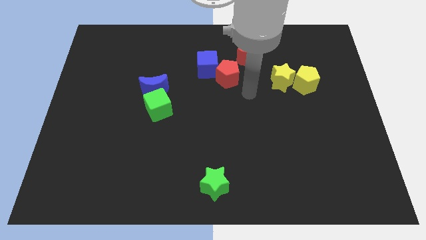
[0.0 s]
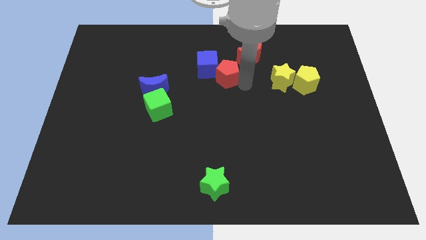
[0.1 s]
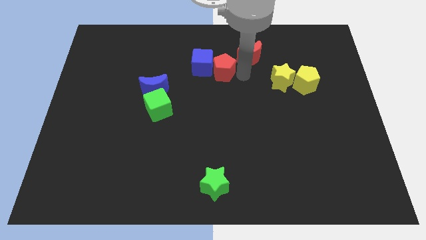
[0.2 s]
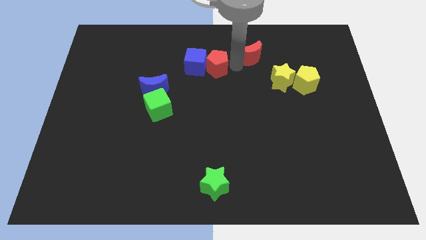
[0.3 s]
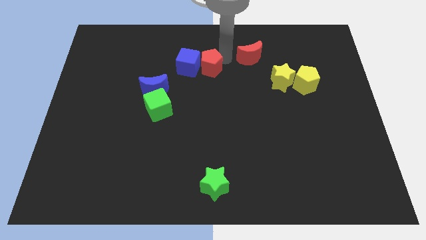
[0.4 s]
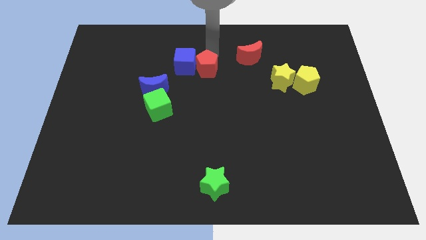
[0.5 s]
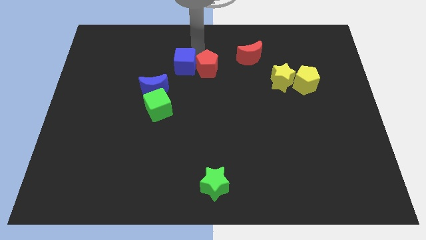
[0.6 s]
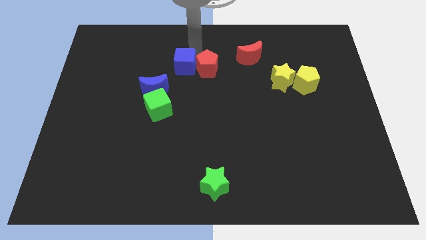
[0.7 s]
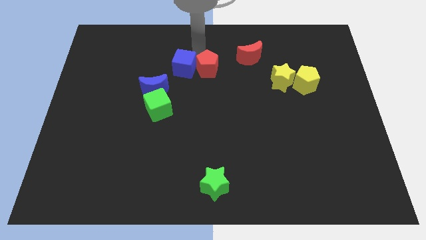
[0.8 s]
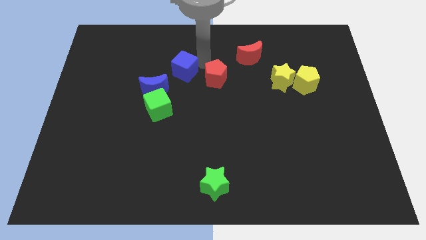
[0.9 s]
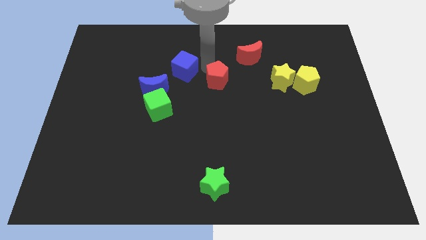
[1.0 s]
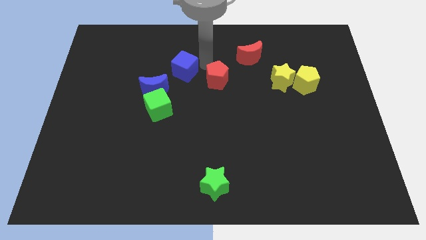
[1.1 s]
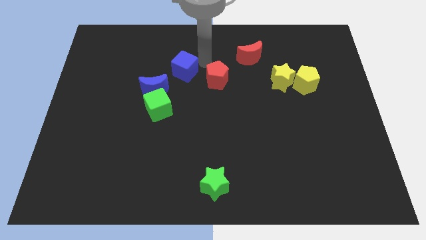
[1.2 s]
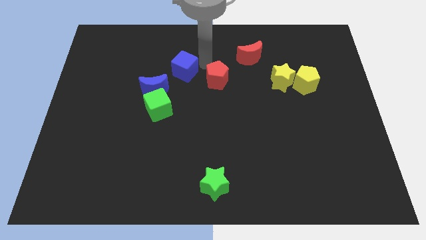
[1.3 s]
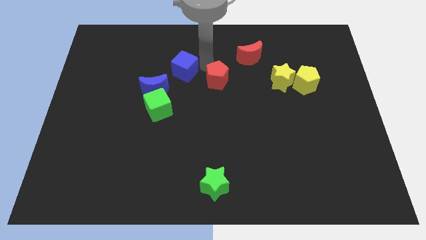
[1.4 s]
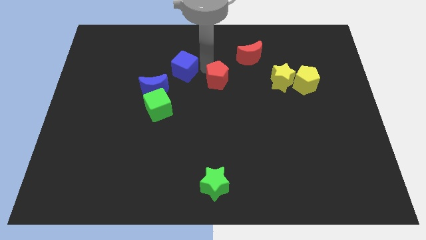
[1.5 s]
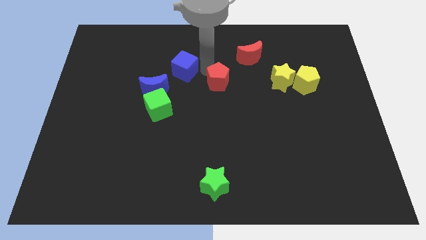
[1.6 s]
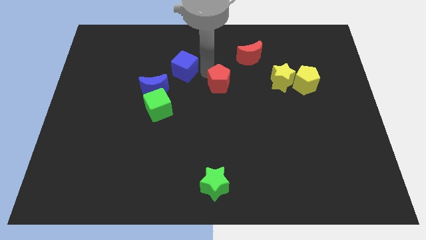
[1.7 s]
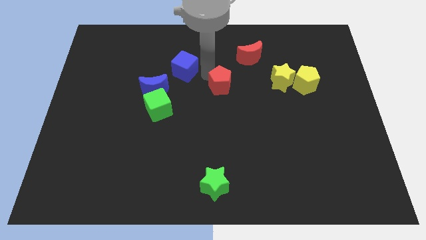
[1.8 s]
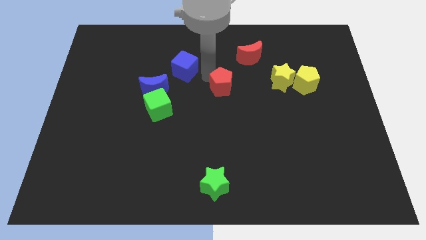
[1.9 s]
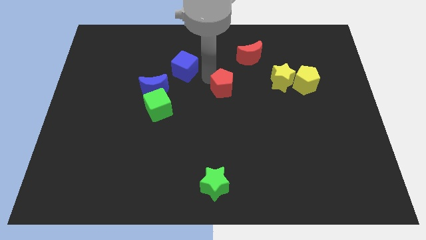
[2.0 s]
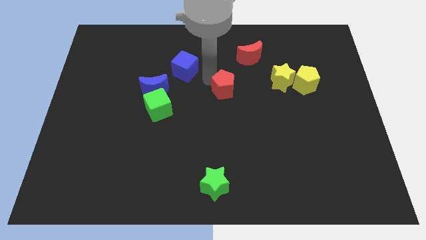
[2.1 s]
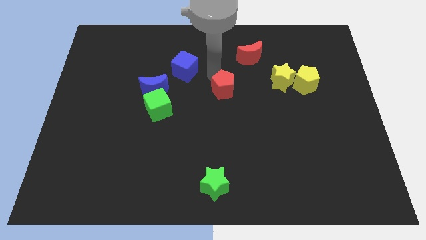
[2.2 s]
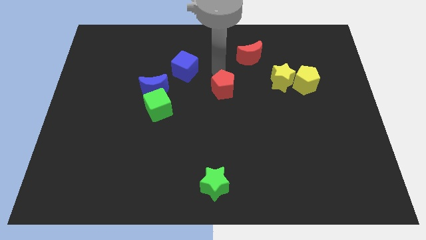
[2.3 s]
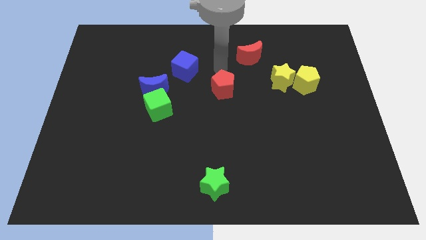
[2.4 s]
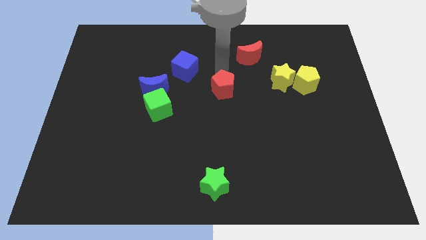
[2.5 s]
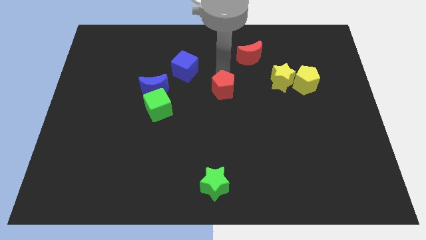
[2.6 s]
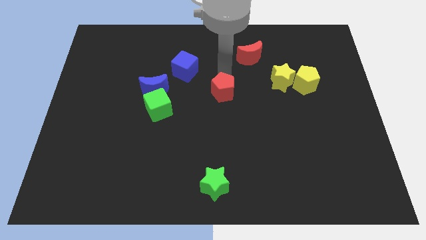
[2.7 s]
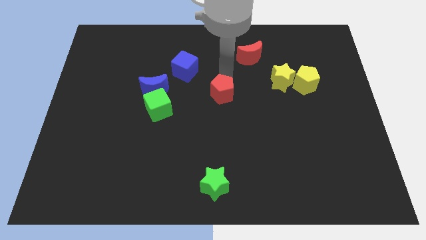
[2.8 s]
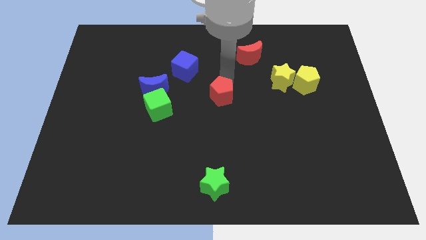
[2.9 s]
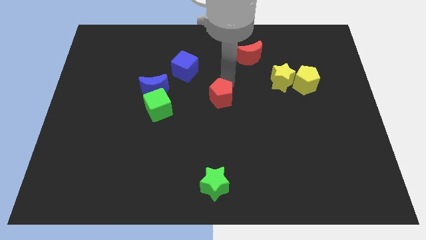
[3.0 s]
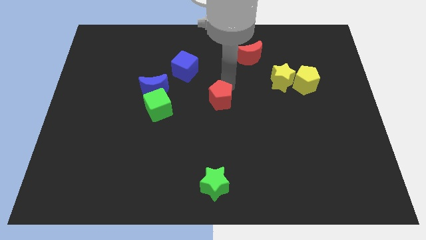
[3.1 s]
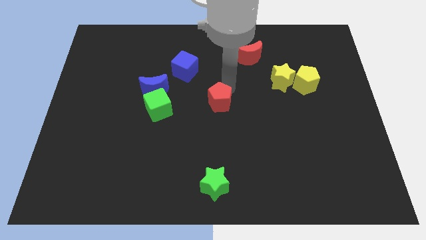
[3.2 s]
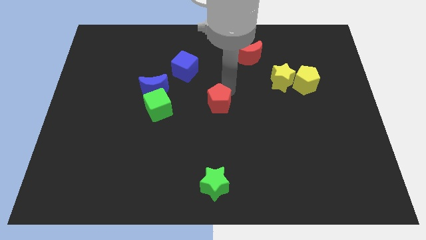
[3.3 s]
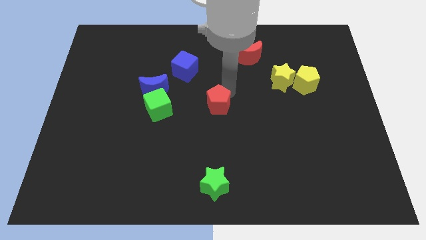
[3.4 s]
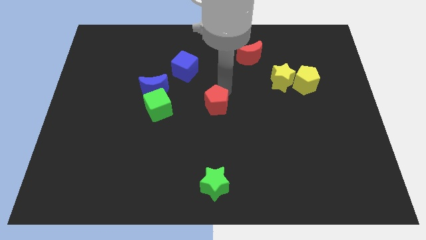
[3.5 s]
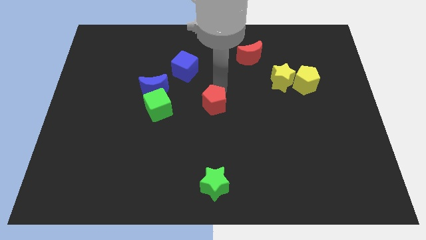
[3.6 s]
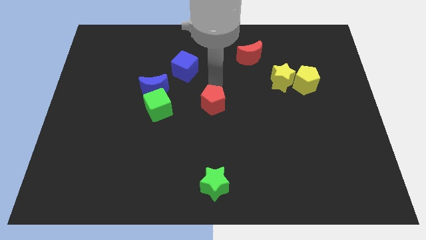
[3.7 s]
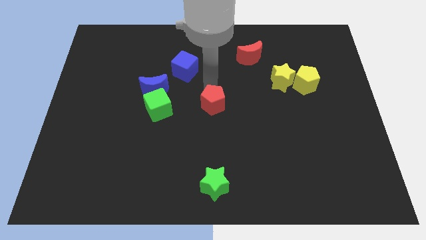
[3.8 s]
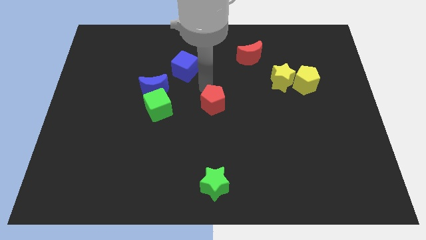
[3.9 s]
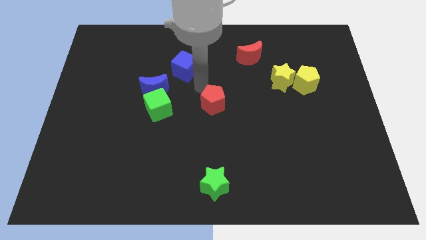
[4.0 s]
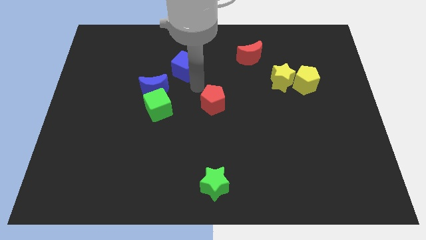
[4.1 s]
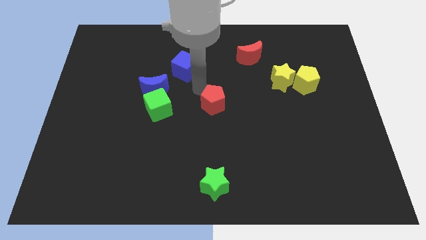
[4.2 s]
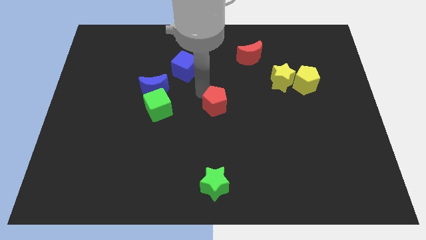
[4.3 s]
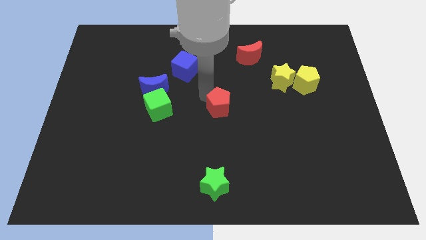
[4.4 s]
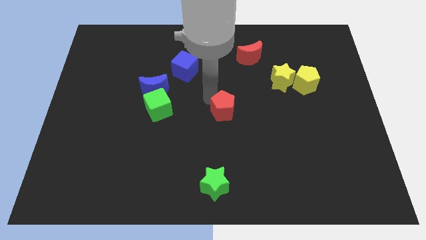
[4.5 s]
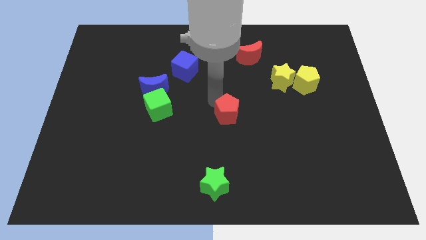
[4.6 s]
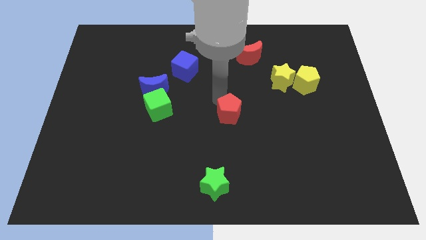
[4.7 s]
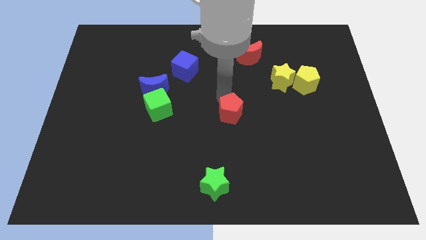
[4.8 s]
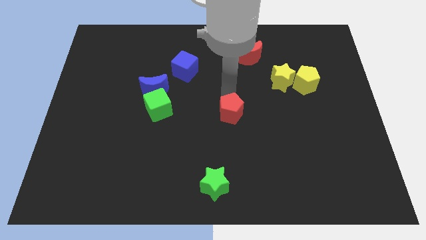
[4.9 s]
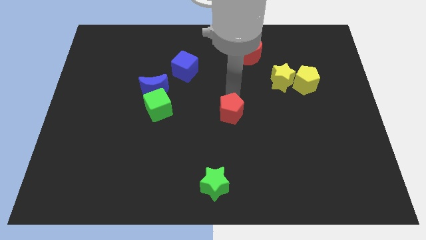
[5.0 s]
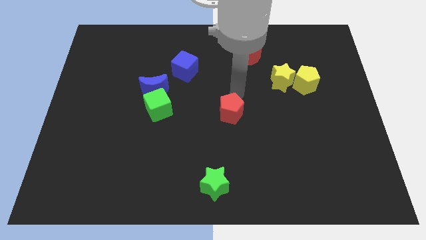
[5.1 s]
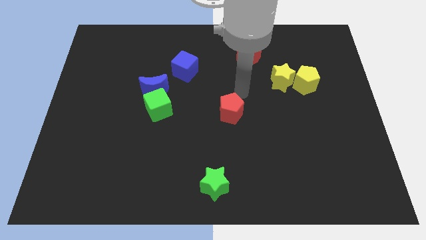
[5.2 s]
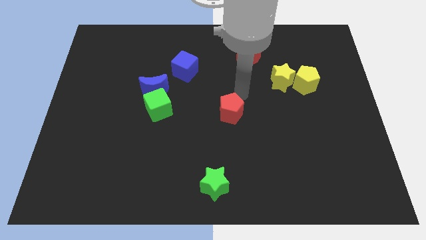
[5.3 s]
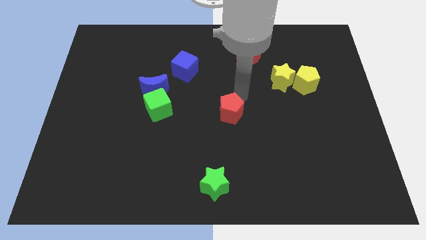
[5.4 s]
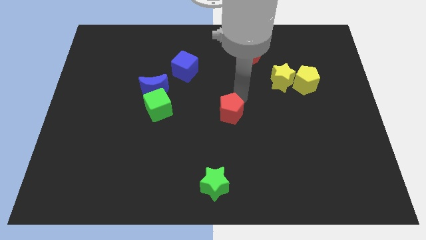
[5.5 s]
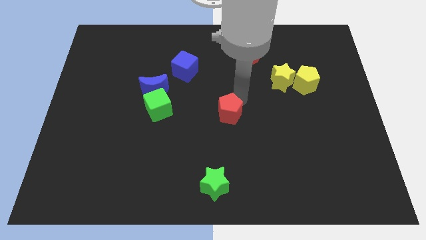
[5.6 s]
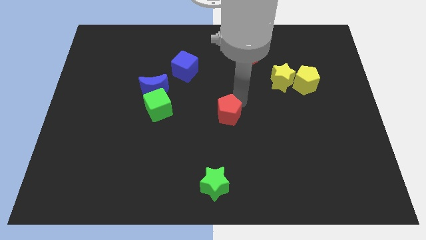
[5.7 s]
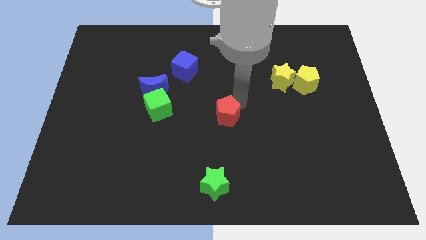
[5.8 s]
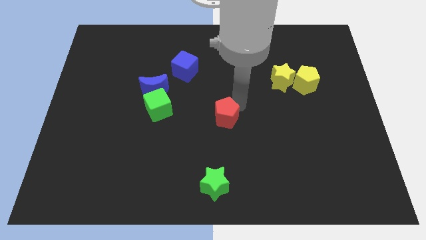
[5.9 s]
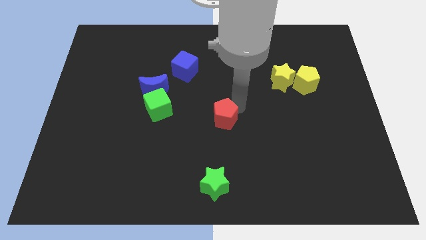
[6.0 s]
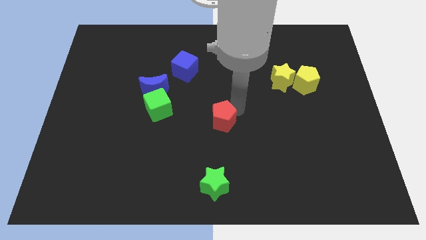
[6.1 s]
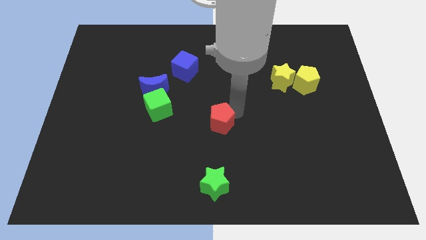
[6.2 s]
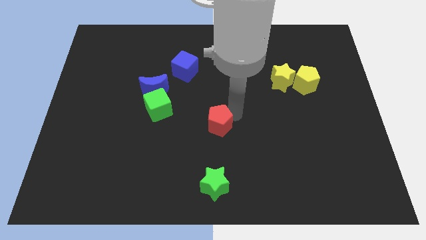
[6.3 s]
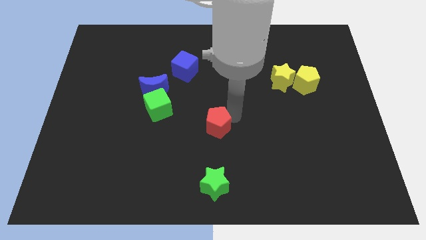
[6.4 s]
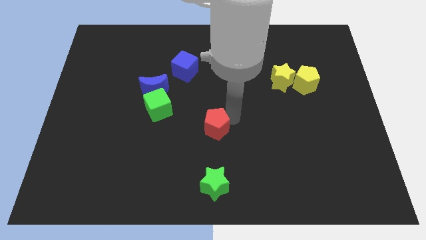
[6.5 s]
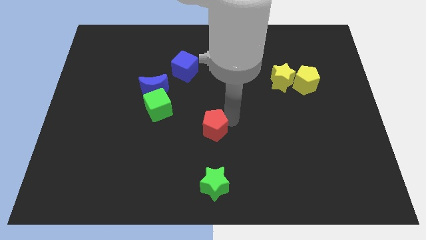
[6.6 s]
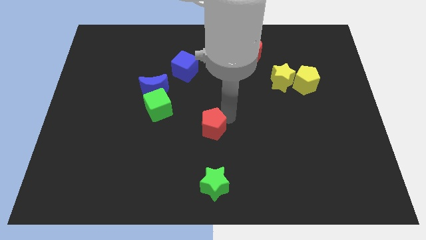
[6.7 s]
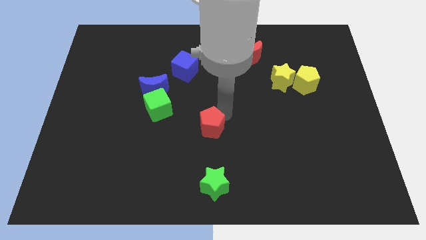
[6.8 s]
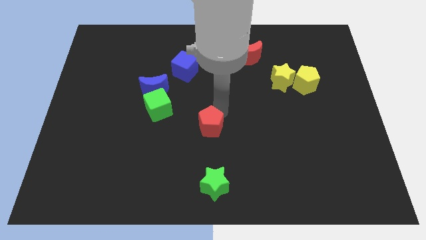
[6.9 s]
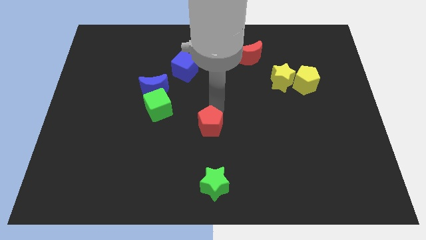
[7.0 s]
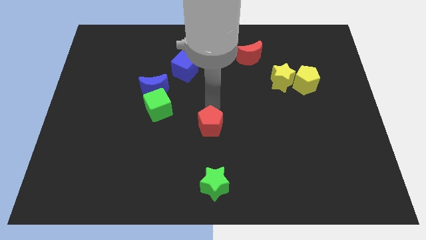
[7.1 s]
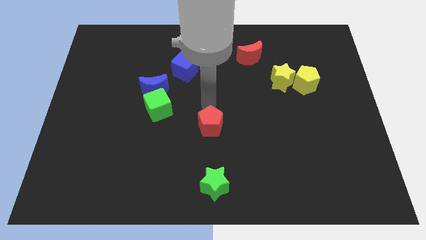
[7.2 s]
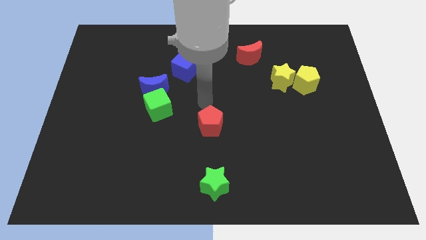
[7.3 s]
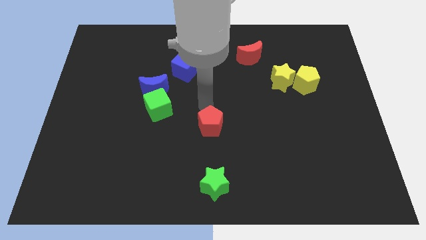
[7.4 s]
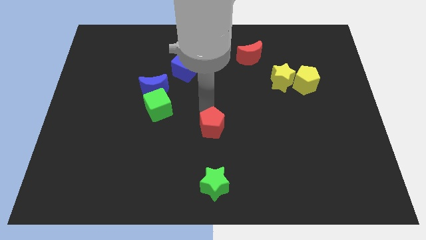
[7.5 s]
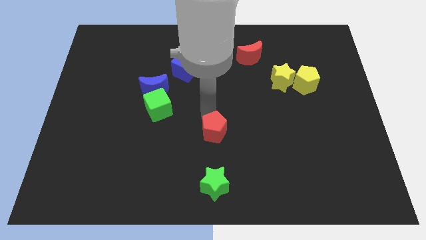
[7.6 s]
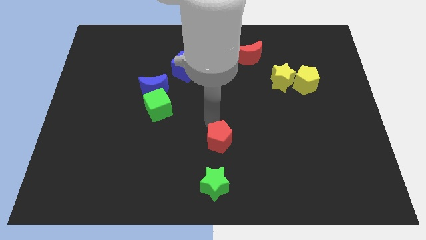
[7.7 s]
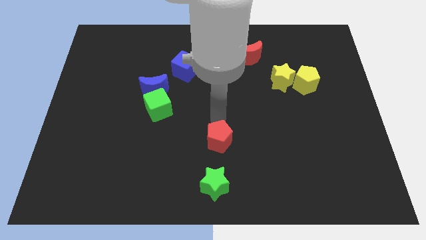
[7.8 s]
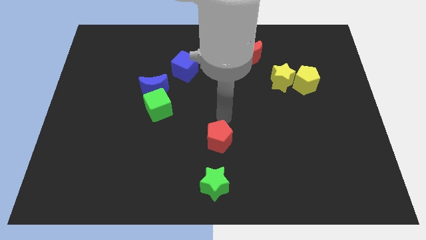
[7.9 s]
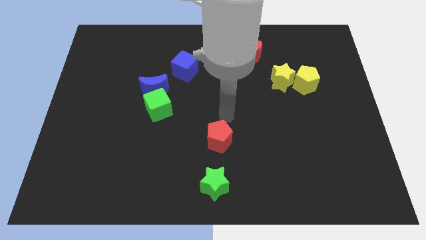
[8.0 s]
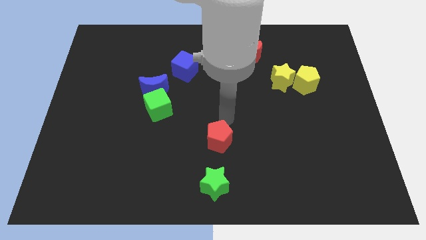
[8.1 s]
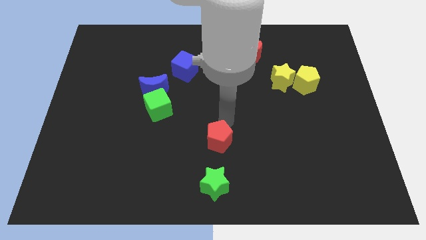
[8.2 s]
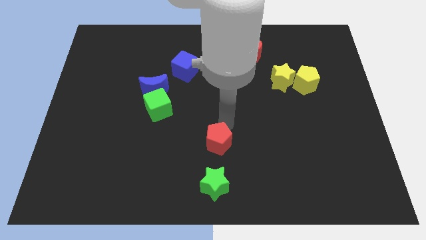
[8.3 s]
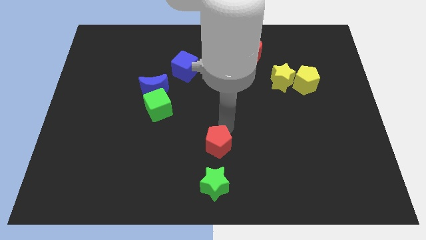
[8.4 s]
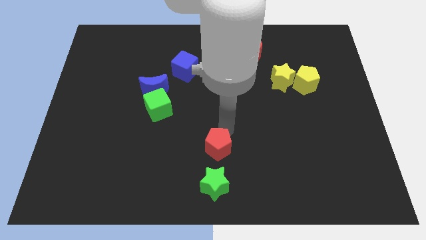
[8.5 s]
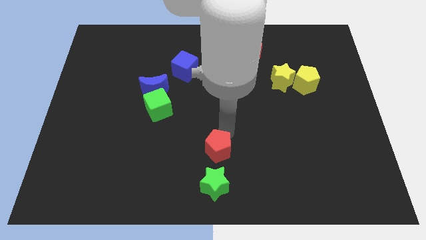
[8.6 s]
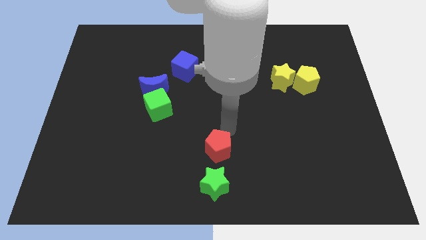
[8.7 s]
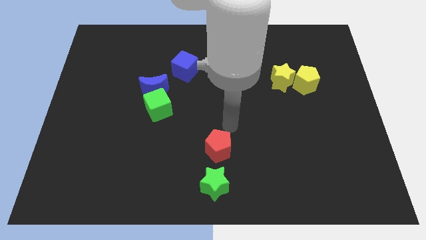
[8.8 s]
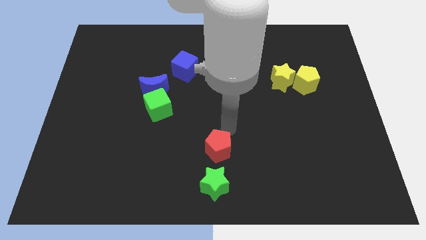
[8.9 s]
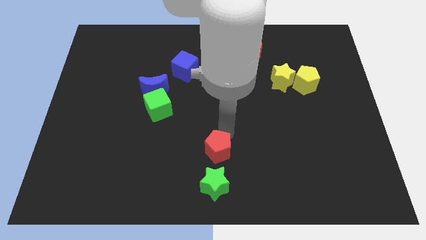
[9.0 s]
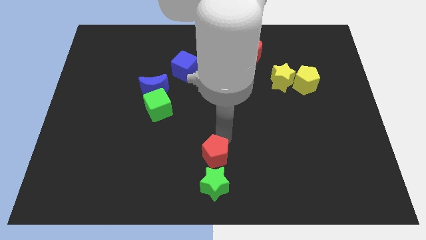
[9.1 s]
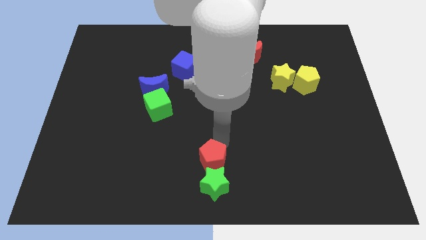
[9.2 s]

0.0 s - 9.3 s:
slide the red pentagon to the green star
